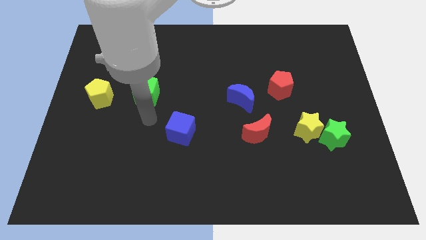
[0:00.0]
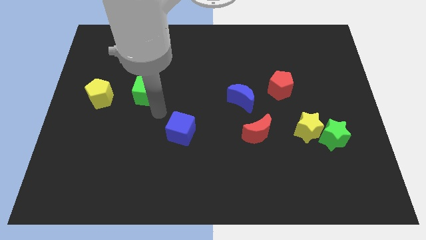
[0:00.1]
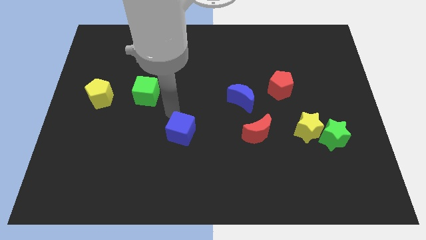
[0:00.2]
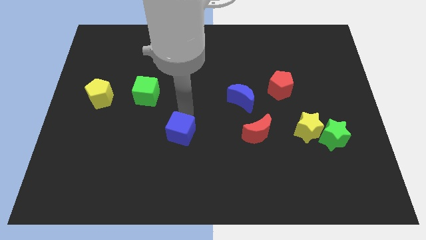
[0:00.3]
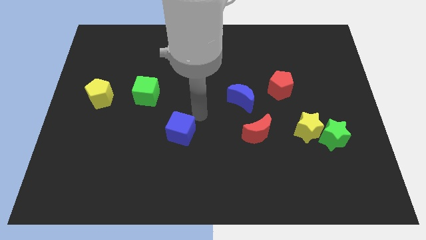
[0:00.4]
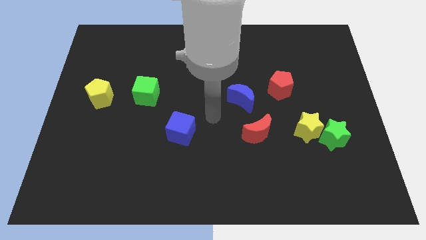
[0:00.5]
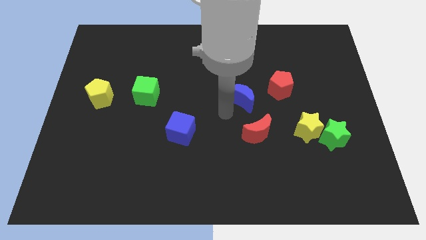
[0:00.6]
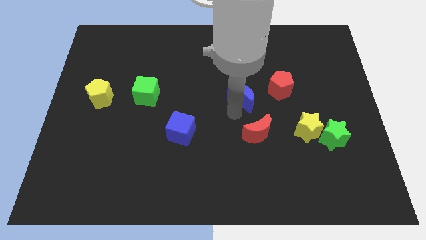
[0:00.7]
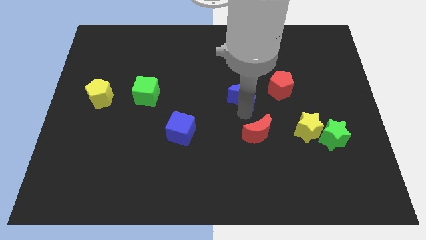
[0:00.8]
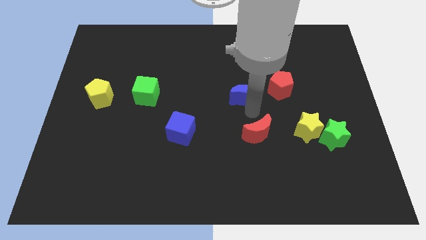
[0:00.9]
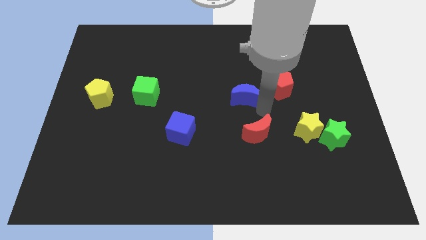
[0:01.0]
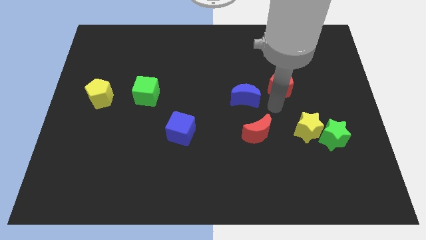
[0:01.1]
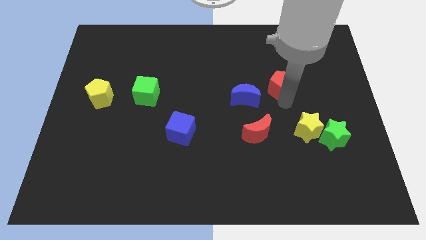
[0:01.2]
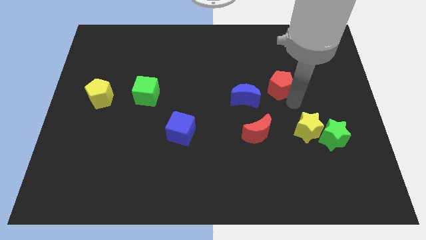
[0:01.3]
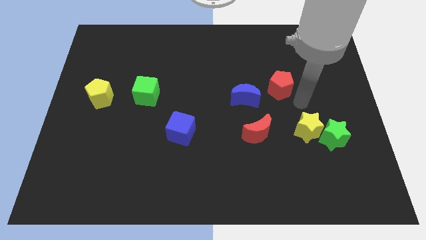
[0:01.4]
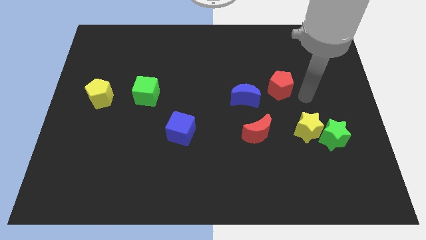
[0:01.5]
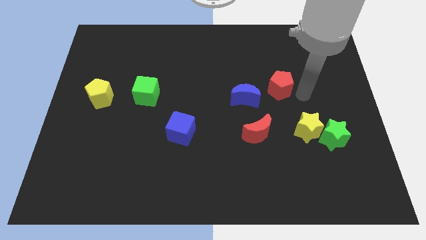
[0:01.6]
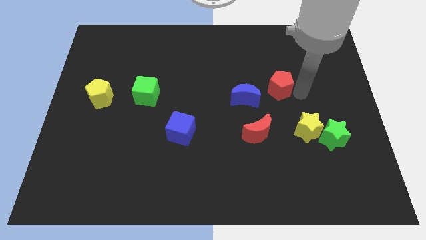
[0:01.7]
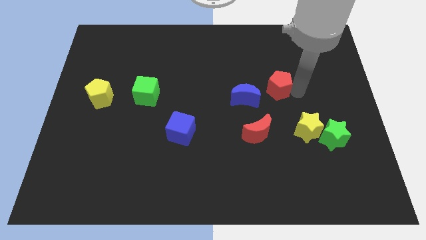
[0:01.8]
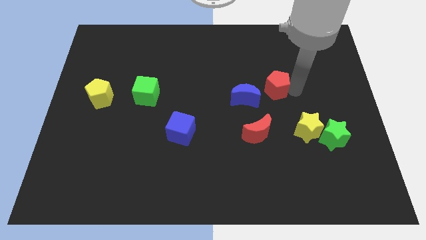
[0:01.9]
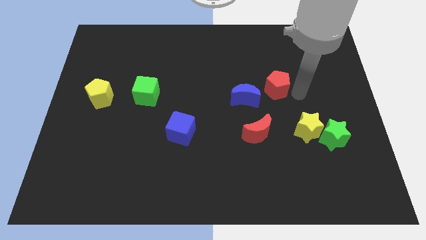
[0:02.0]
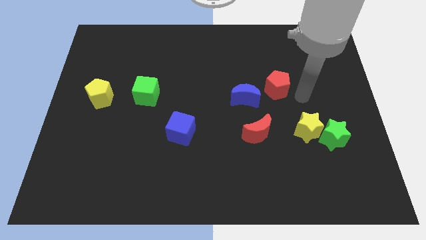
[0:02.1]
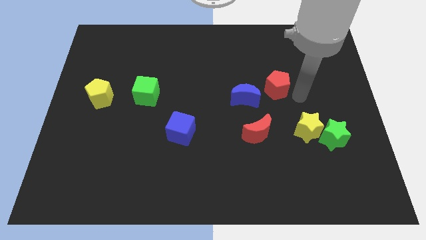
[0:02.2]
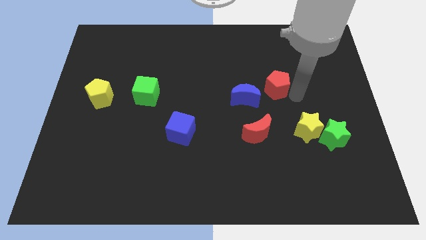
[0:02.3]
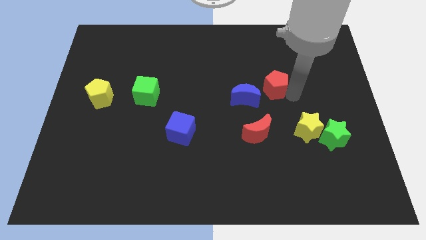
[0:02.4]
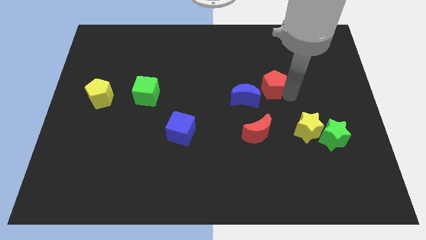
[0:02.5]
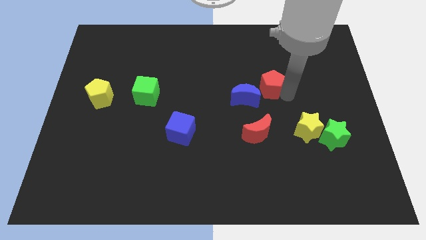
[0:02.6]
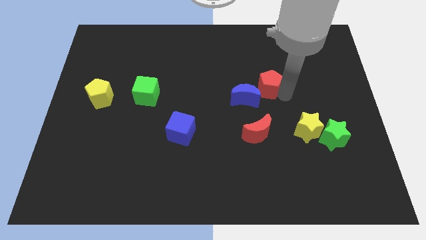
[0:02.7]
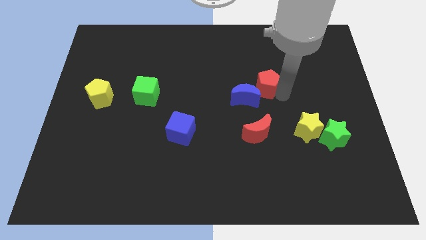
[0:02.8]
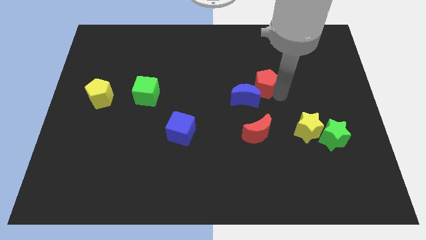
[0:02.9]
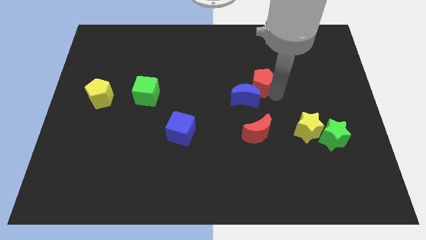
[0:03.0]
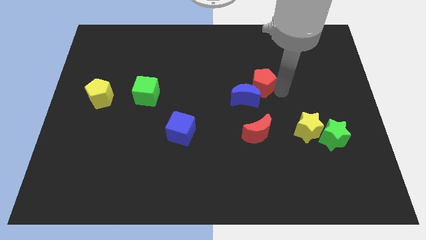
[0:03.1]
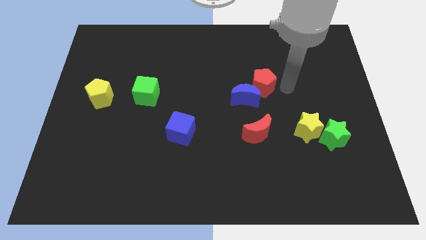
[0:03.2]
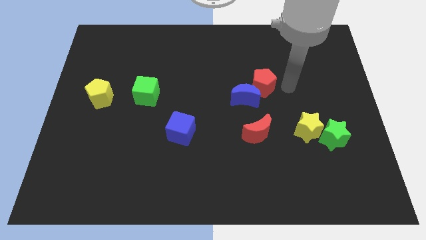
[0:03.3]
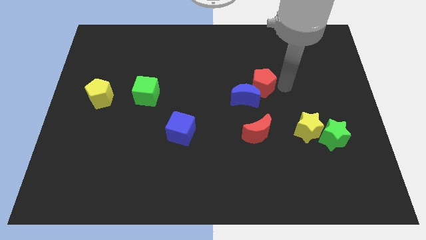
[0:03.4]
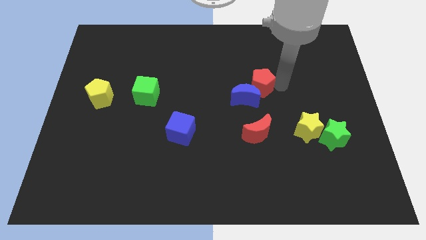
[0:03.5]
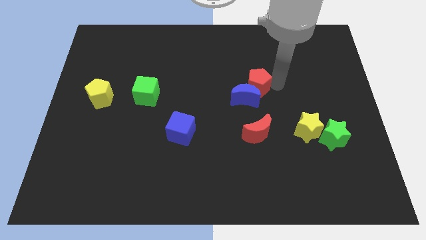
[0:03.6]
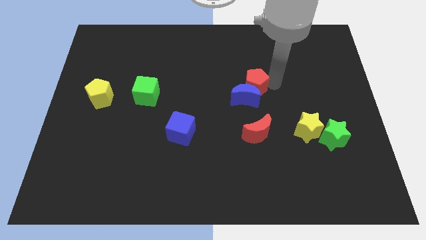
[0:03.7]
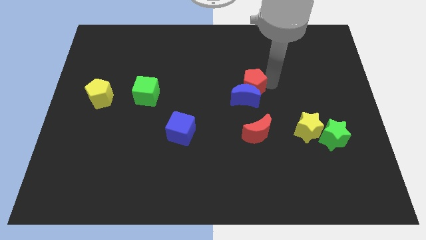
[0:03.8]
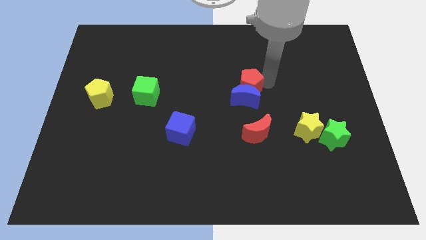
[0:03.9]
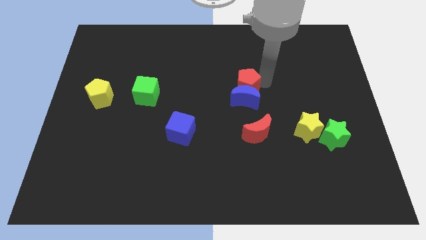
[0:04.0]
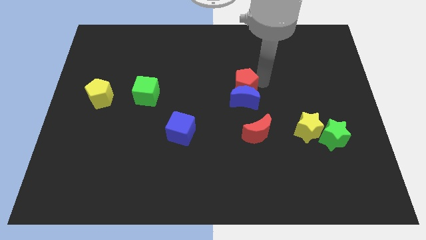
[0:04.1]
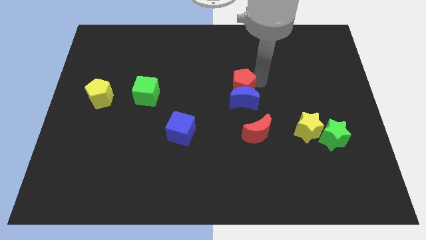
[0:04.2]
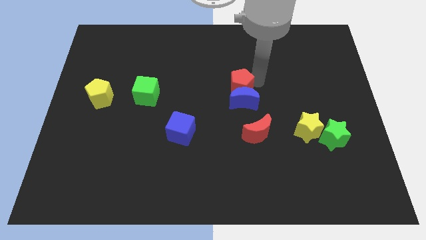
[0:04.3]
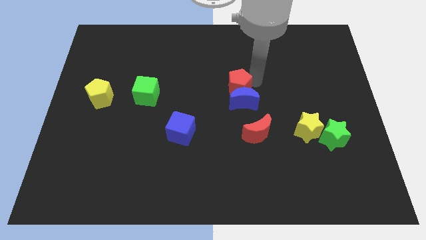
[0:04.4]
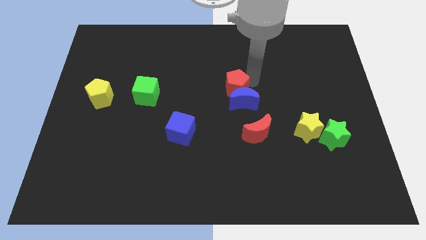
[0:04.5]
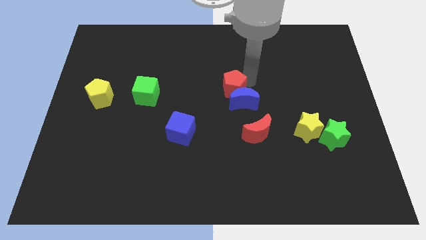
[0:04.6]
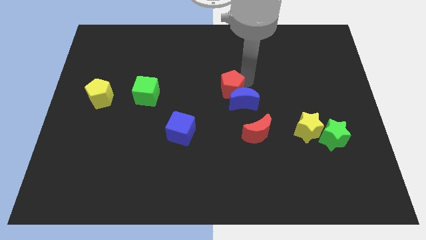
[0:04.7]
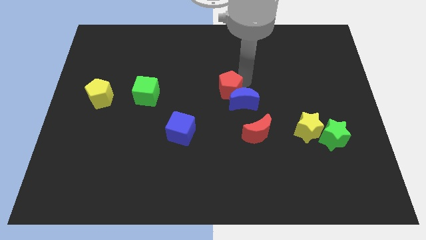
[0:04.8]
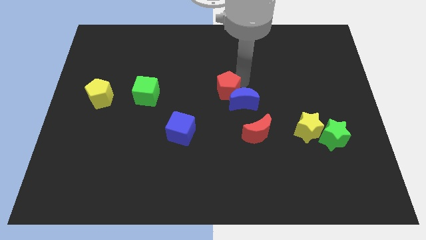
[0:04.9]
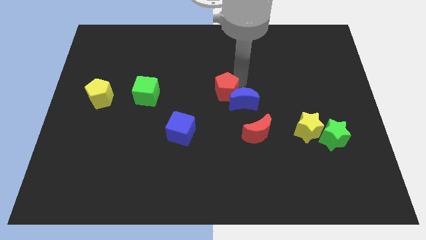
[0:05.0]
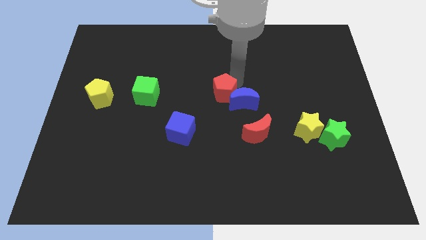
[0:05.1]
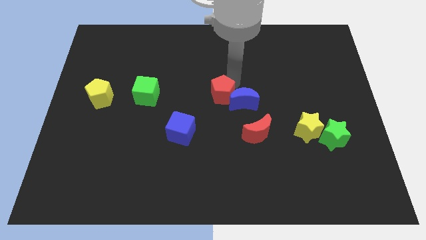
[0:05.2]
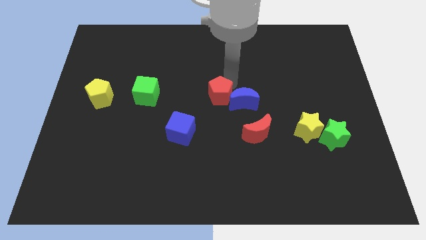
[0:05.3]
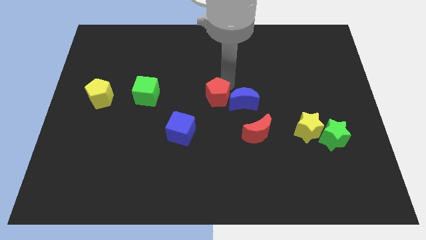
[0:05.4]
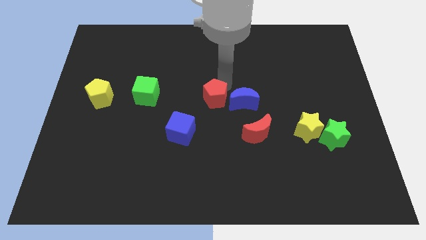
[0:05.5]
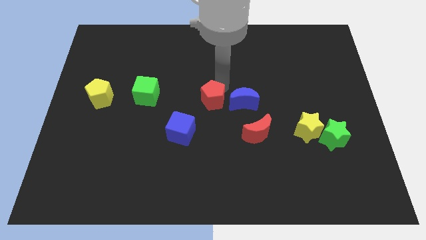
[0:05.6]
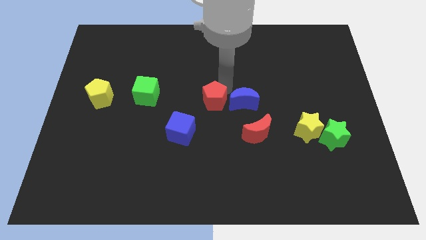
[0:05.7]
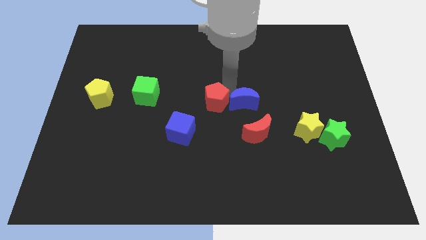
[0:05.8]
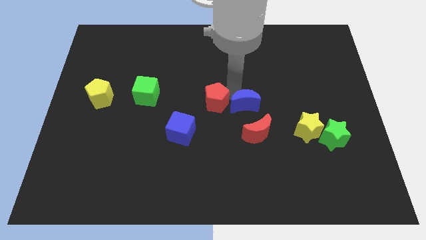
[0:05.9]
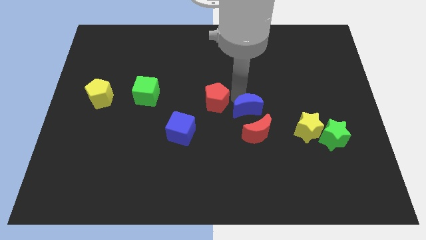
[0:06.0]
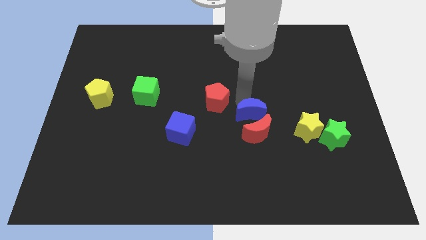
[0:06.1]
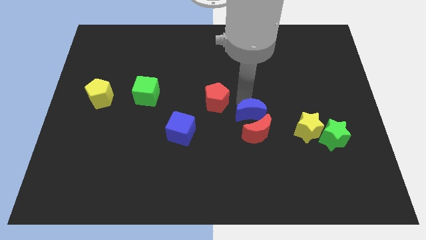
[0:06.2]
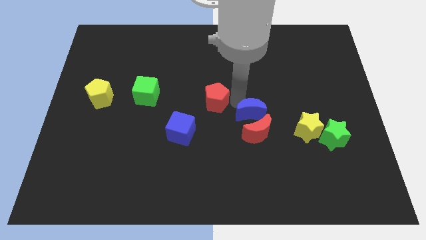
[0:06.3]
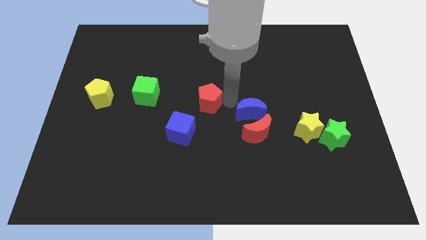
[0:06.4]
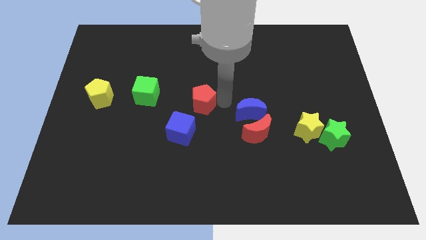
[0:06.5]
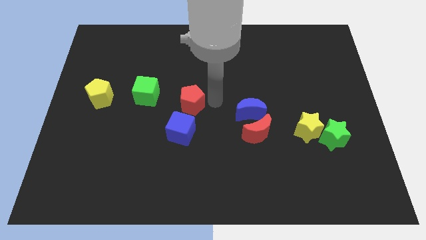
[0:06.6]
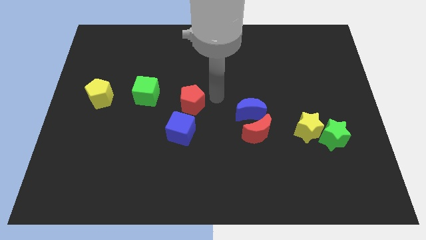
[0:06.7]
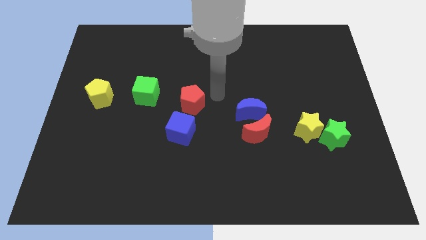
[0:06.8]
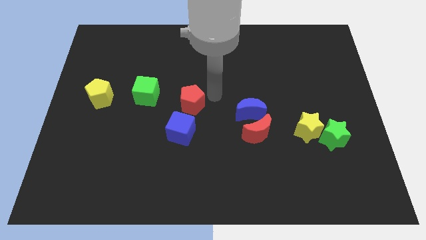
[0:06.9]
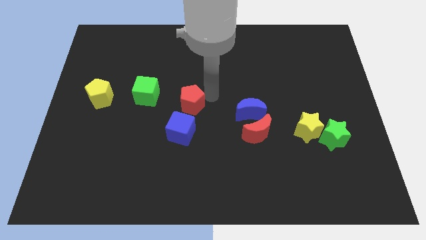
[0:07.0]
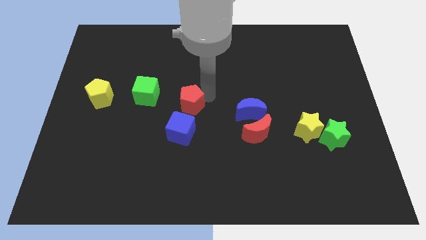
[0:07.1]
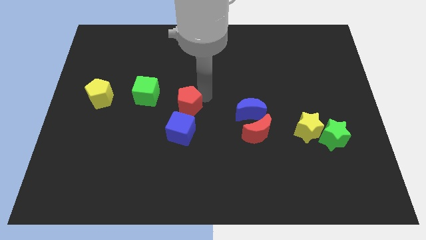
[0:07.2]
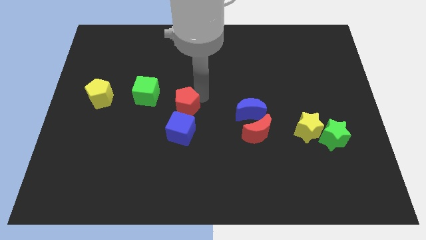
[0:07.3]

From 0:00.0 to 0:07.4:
push the red pentagon diagonally down and to the right of the green cube
